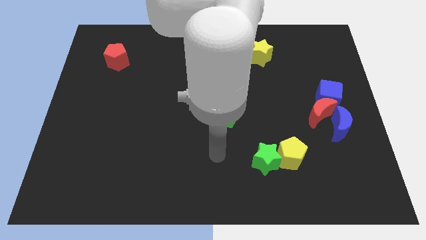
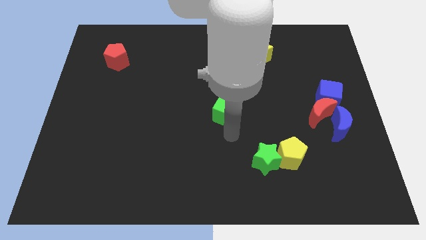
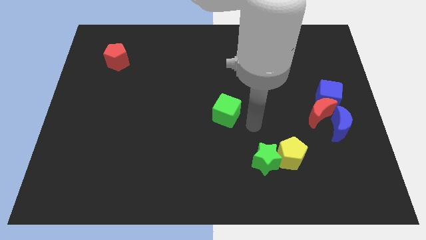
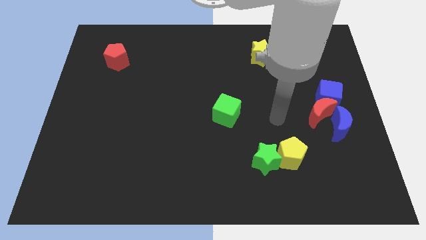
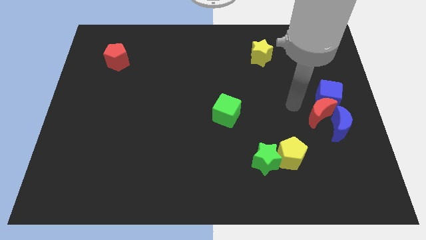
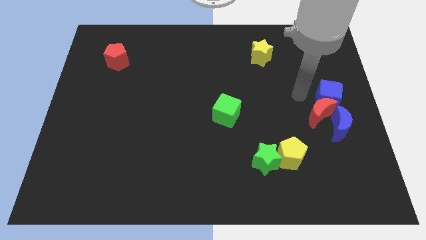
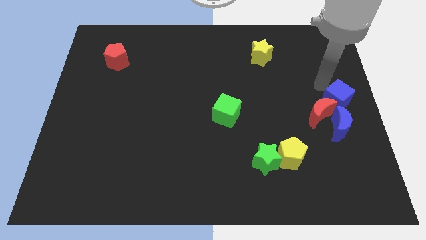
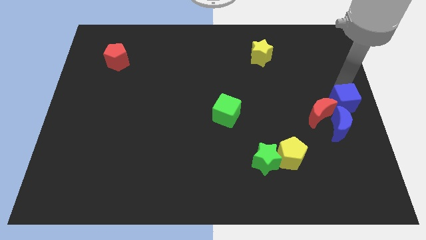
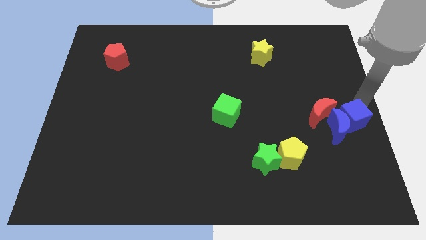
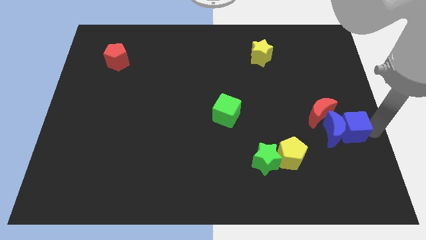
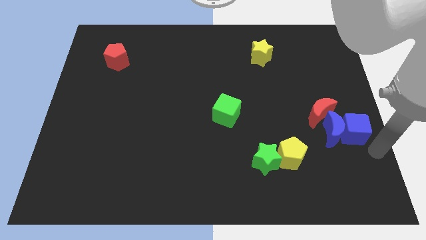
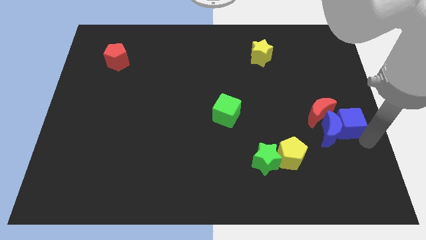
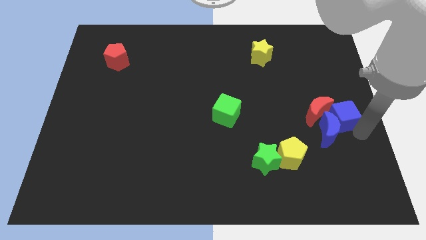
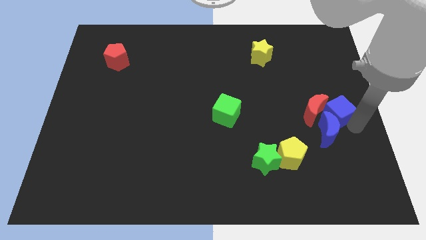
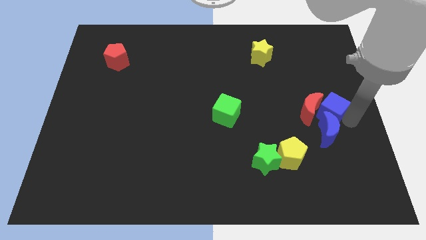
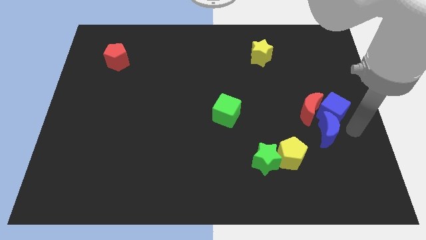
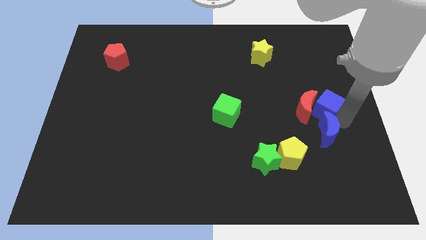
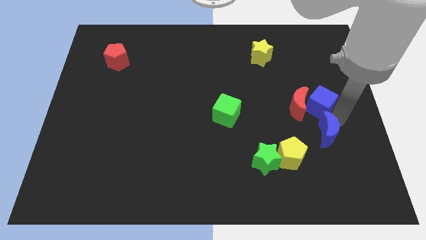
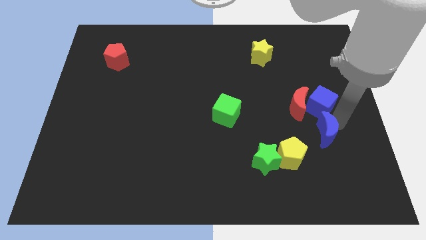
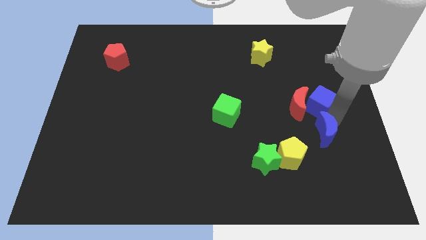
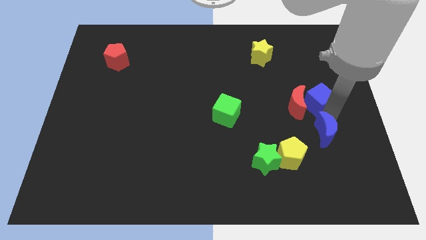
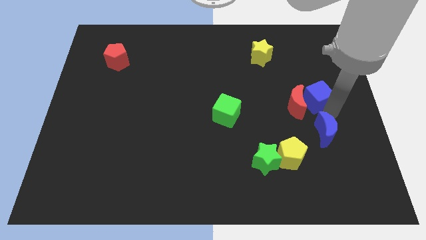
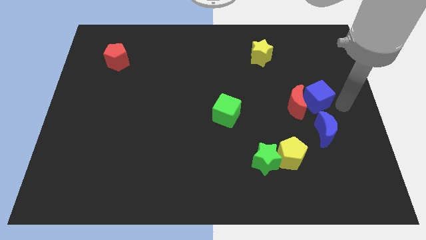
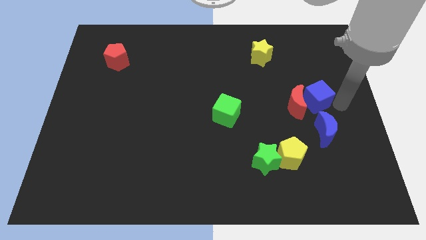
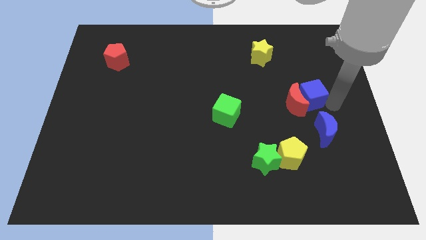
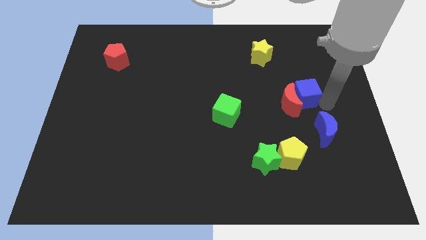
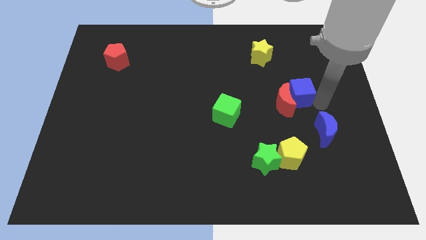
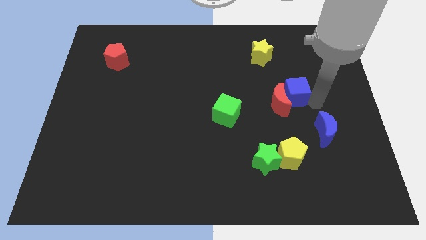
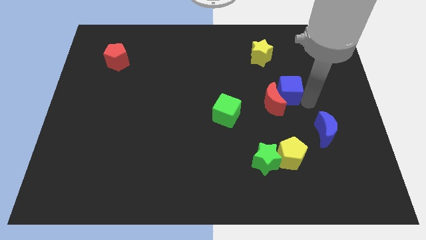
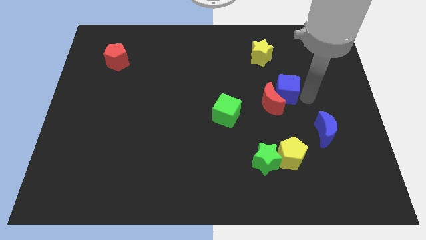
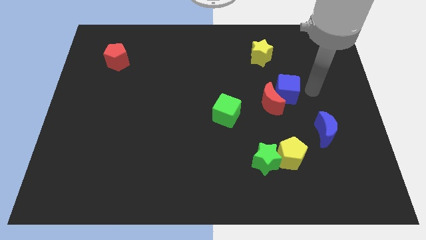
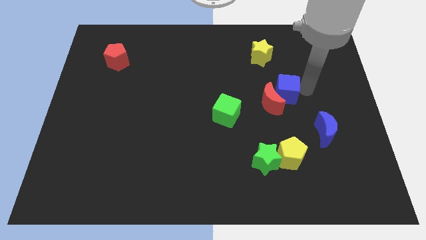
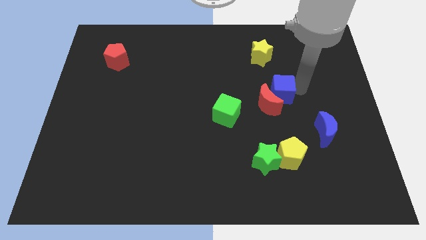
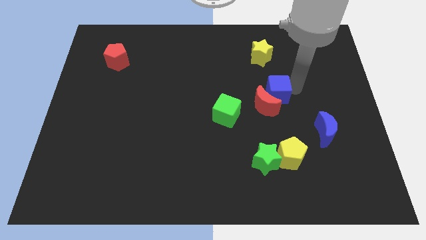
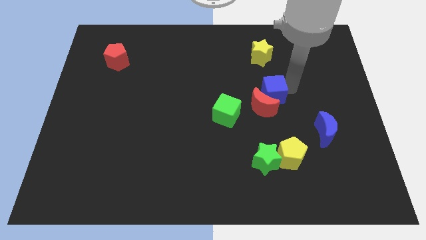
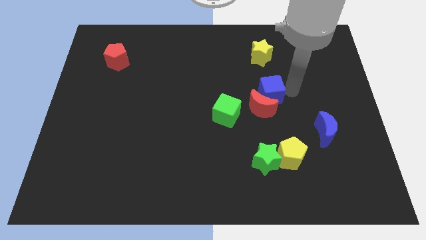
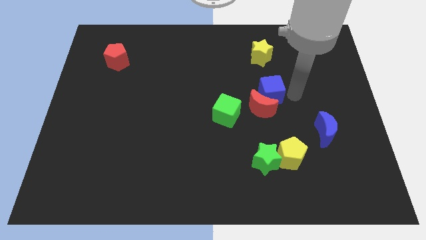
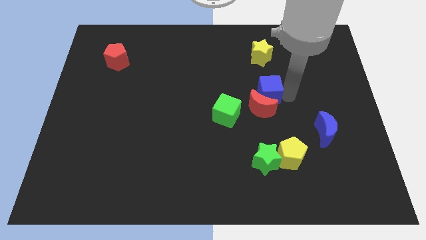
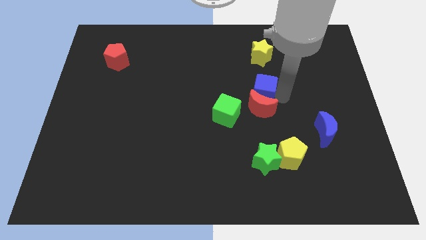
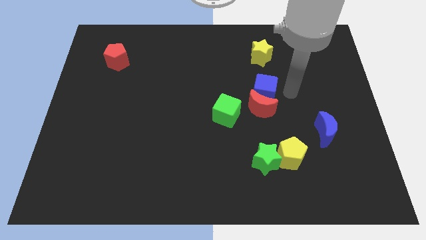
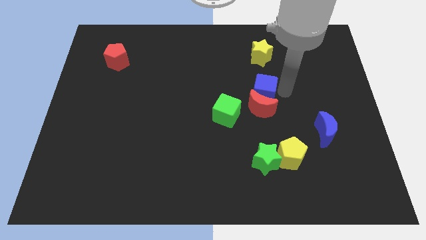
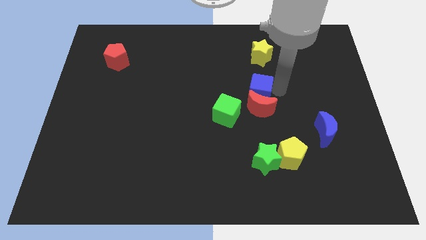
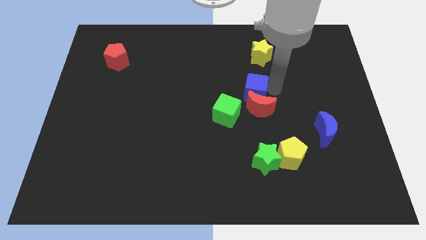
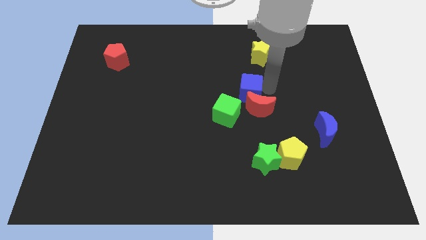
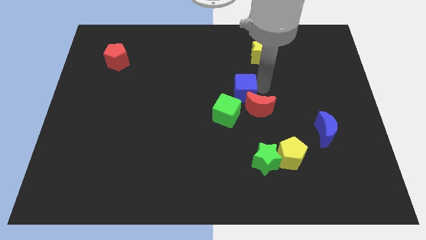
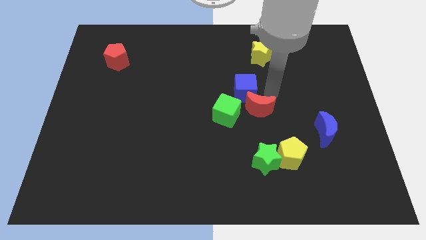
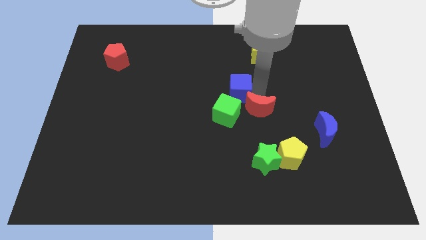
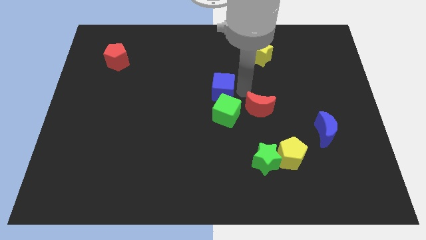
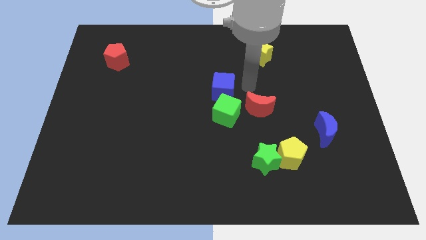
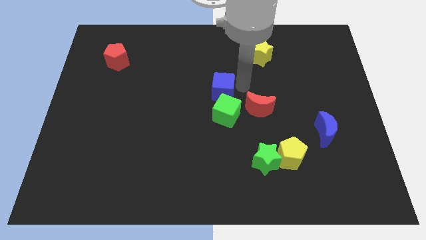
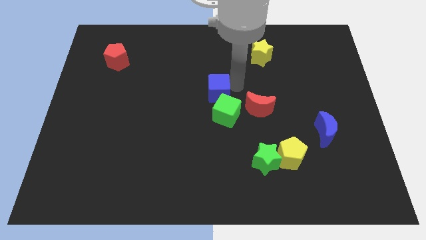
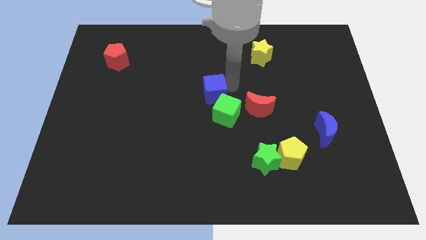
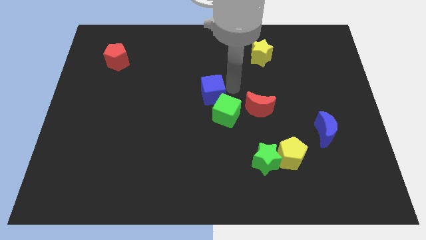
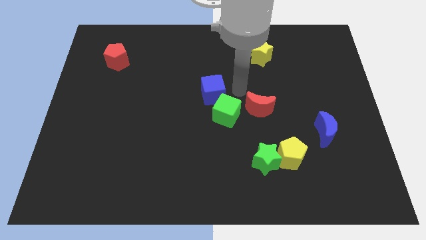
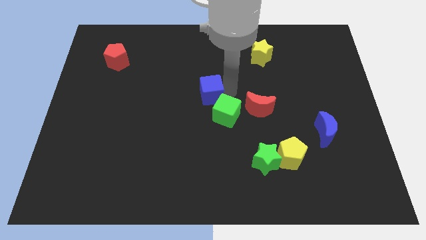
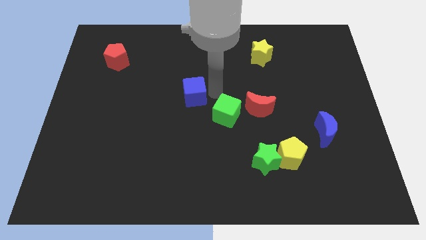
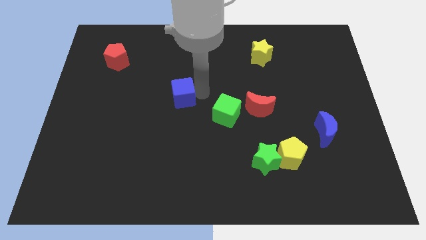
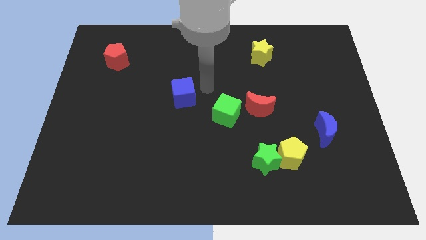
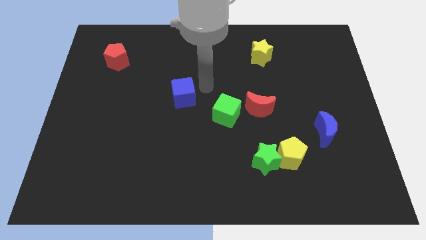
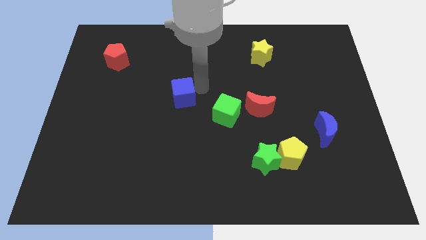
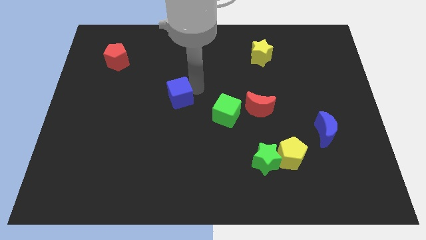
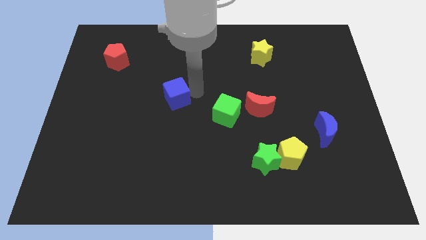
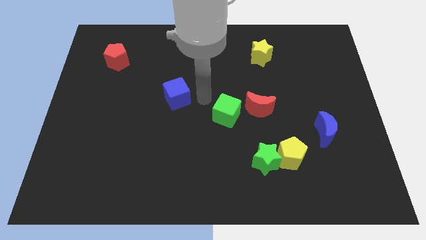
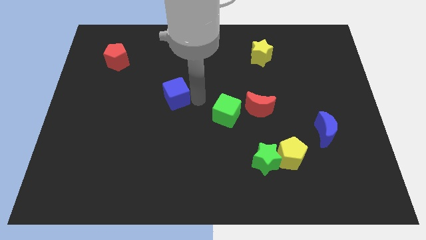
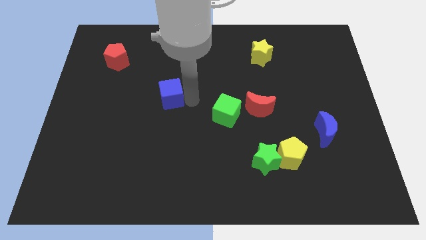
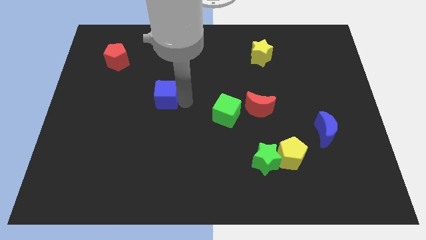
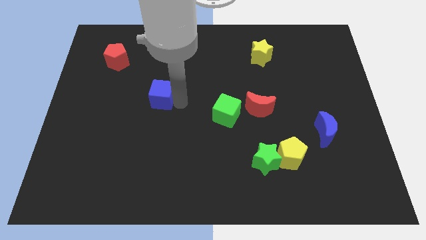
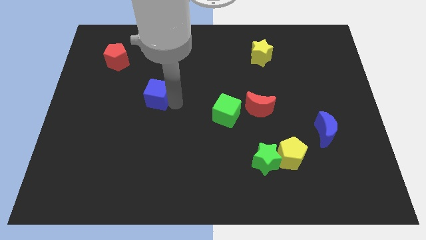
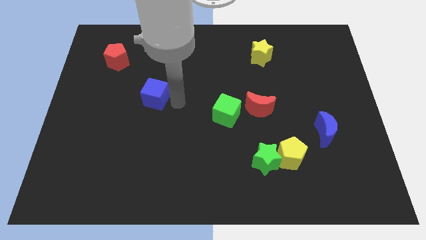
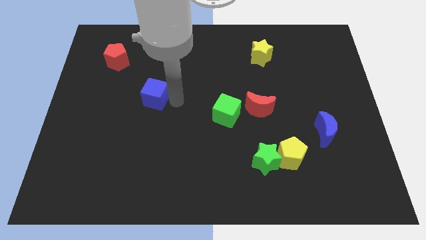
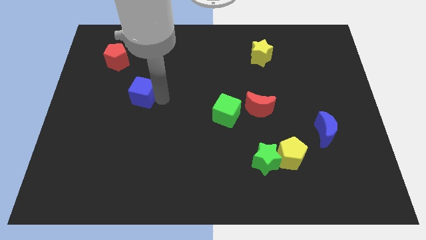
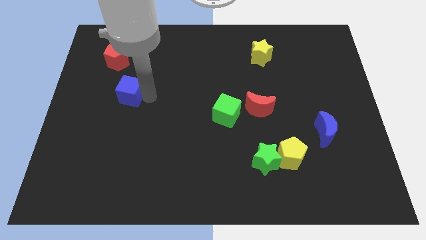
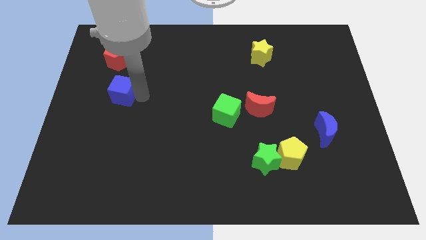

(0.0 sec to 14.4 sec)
move the blue cube to the bottom of the red pentagon
